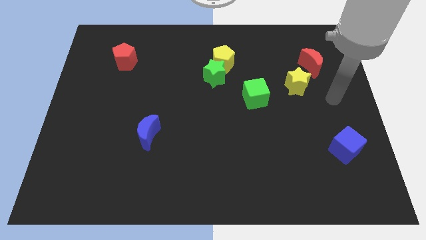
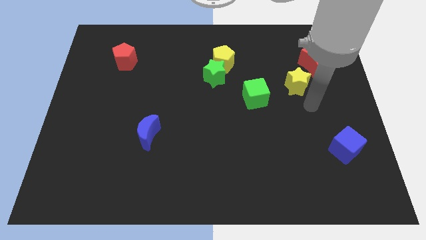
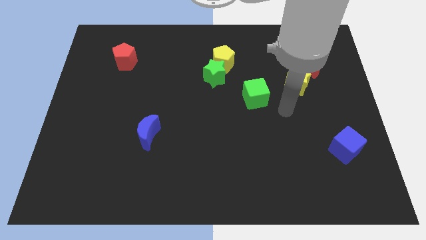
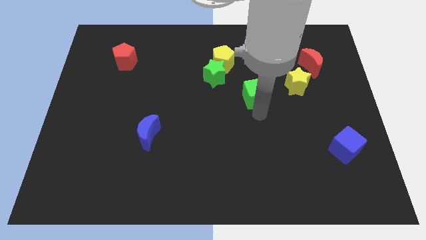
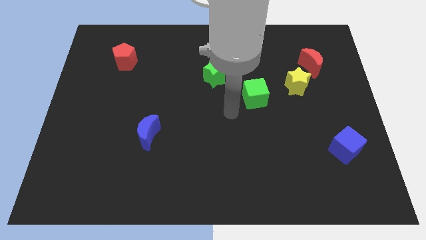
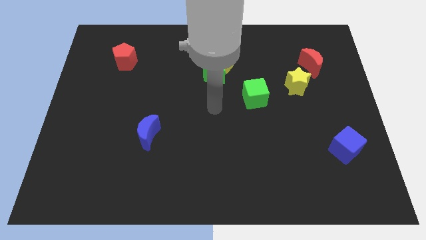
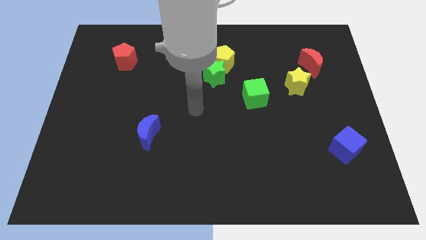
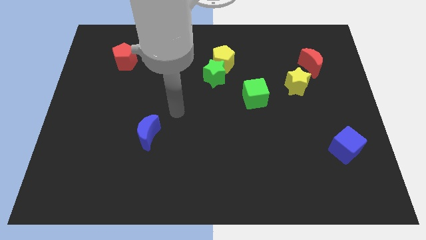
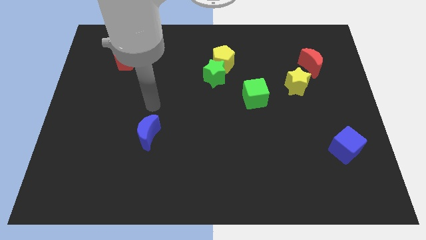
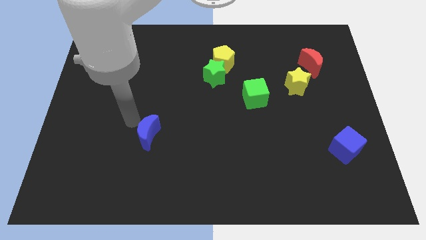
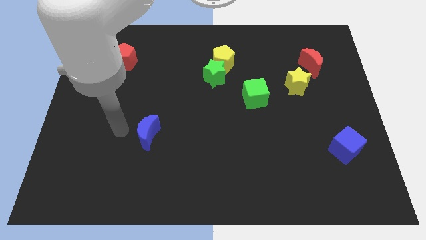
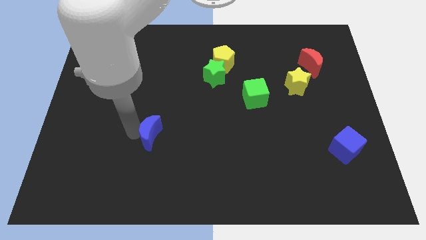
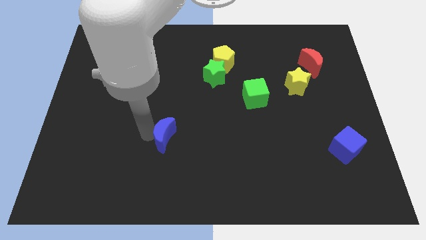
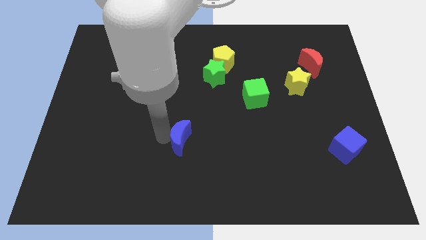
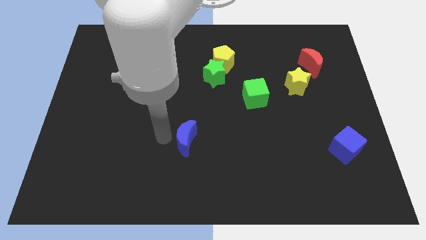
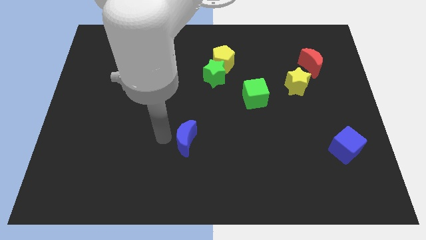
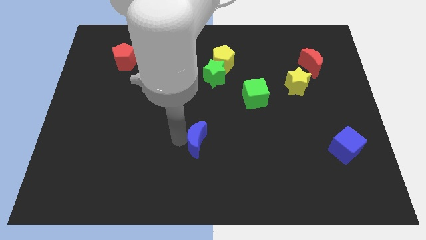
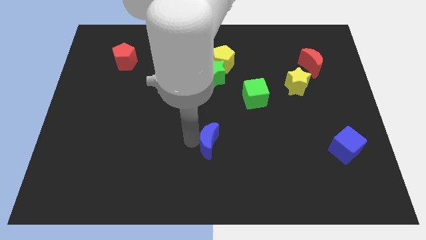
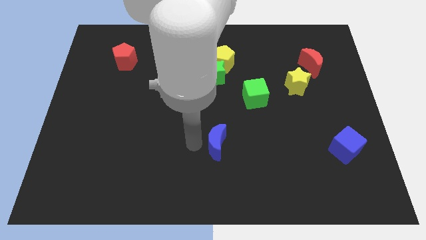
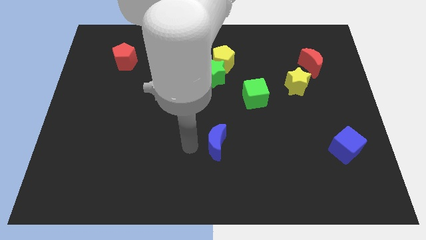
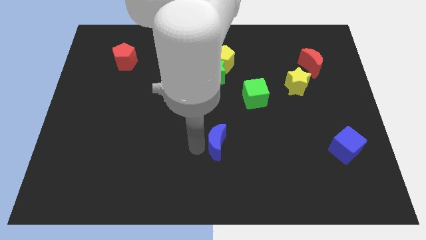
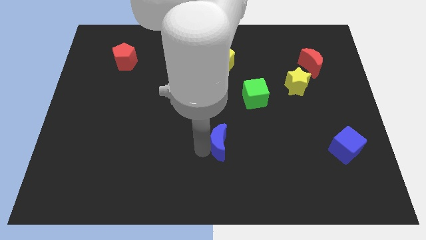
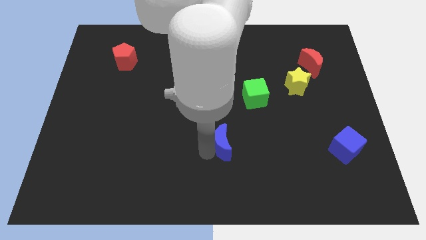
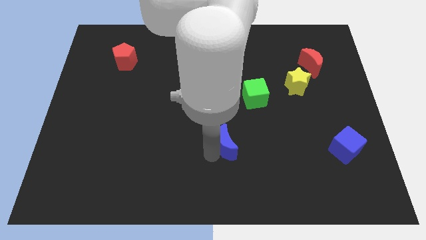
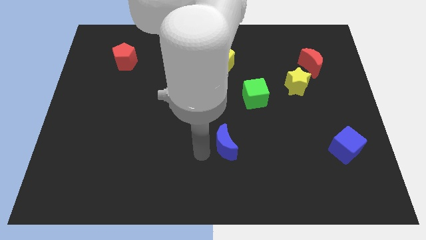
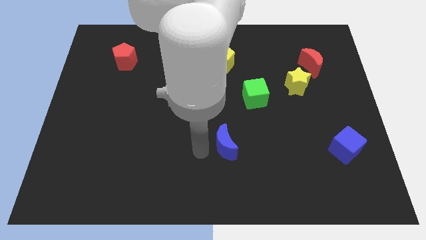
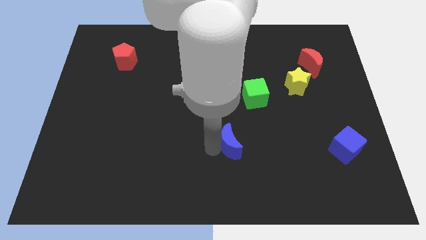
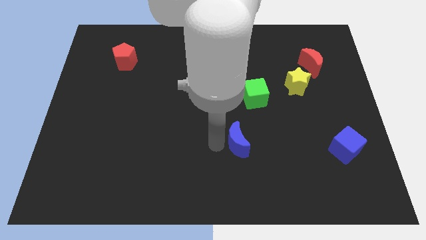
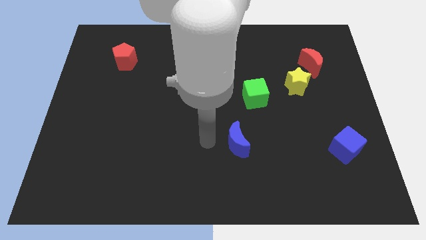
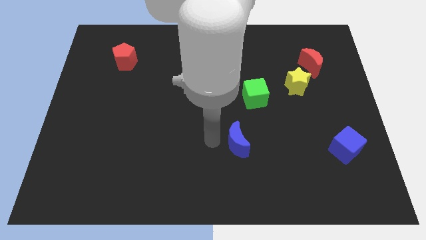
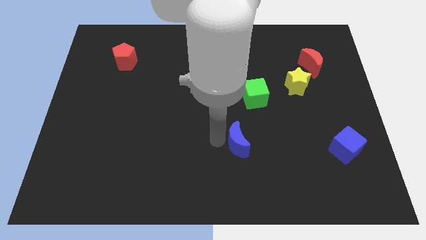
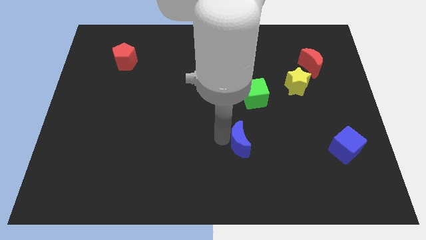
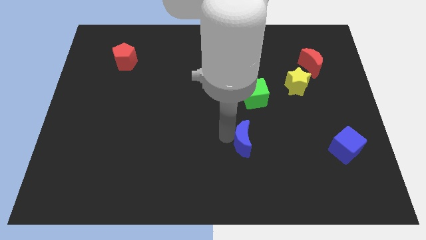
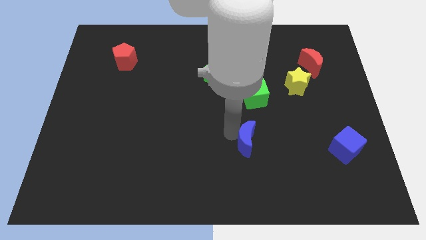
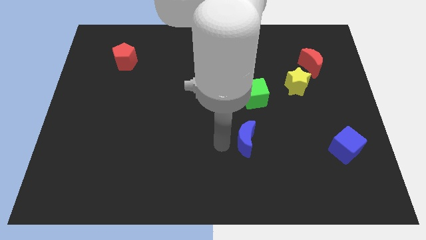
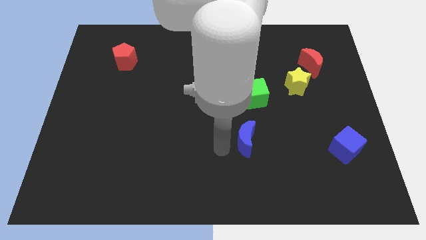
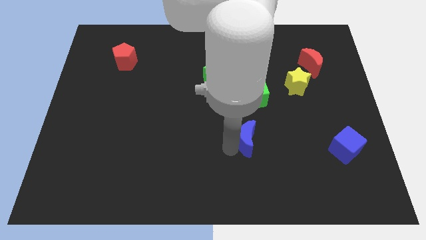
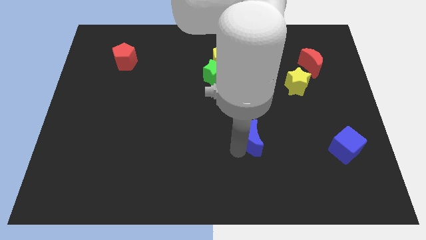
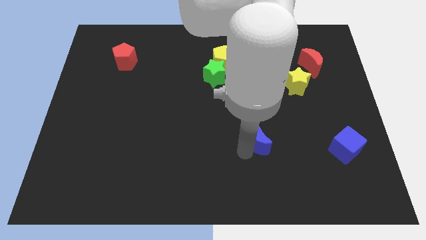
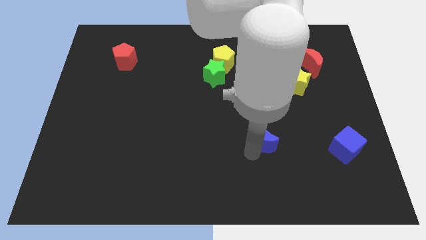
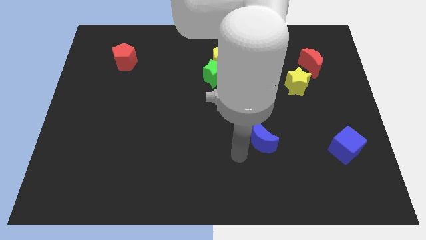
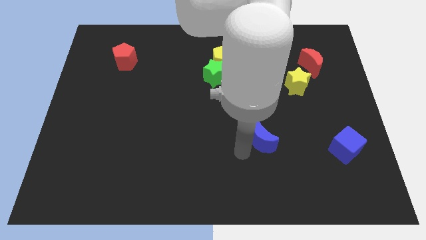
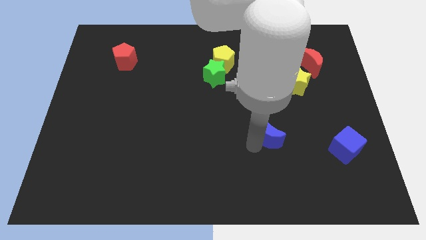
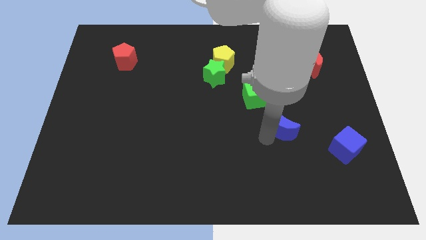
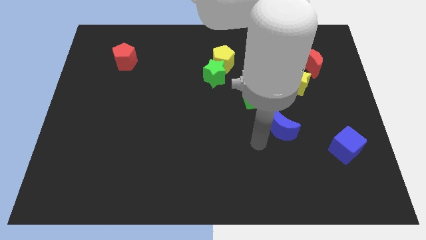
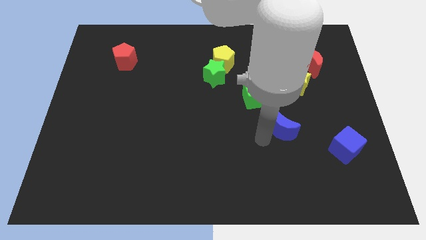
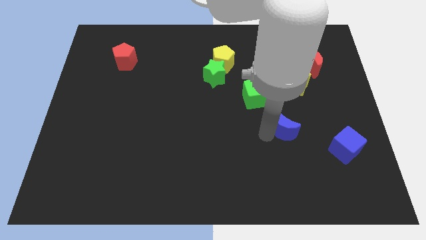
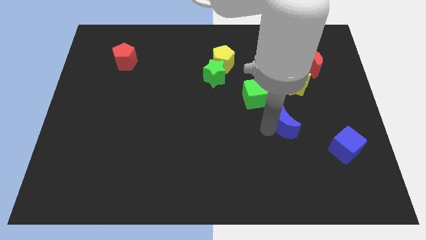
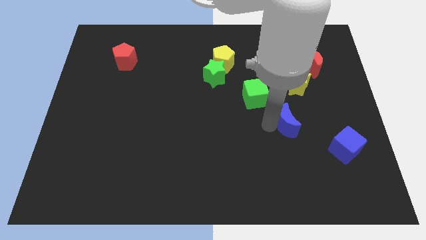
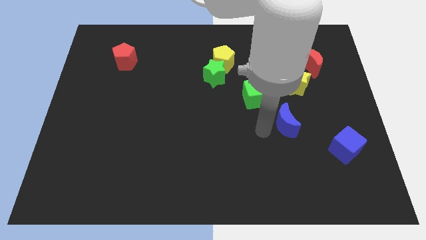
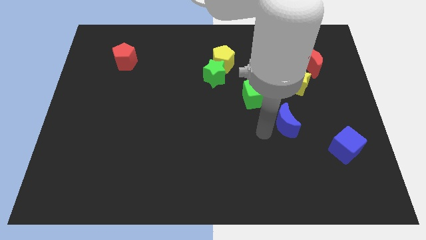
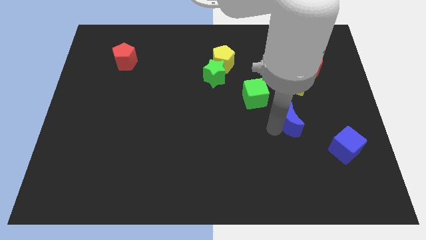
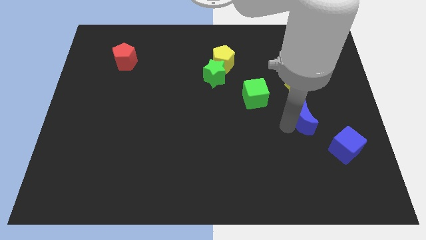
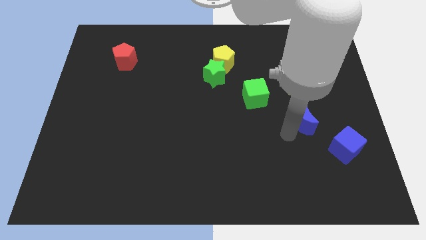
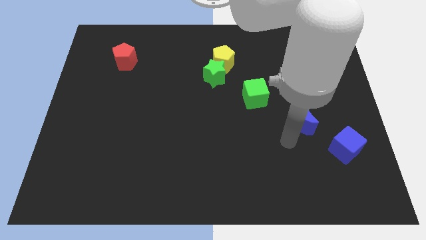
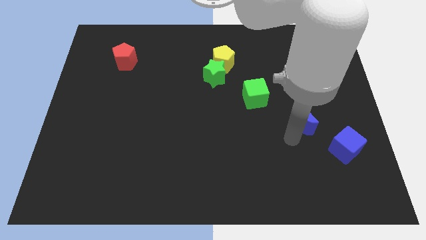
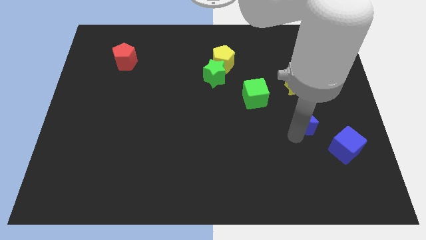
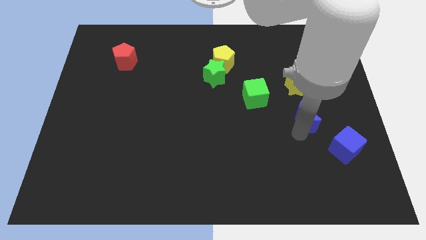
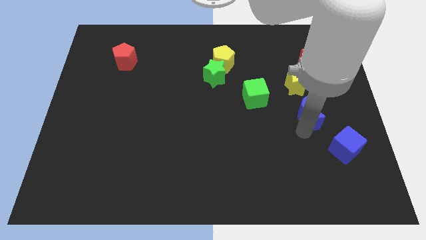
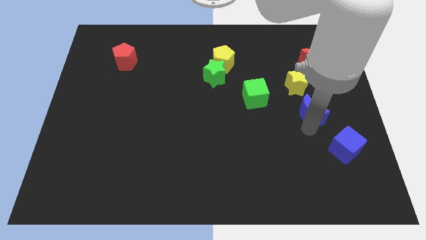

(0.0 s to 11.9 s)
push the blue moon to the bottom right of the yellow star

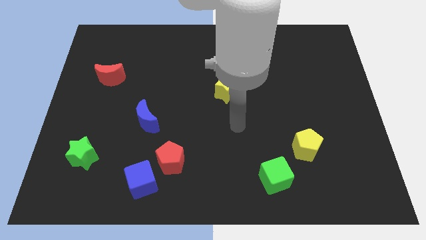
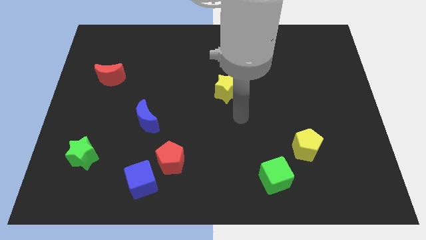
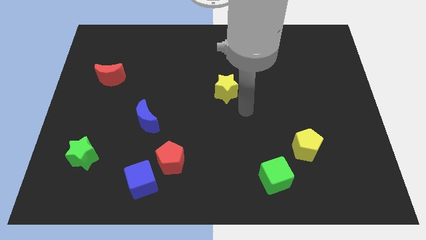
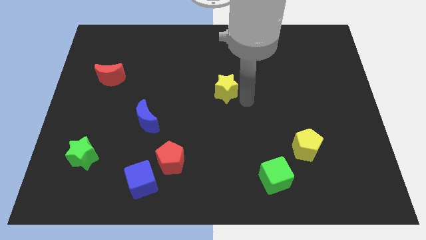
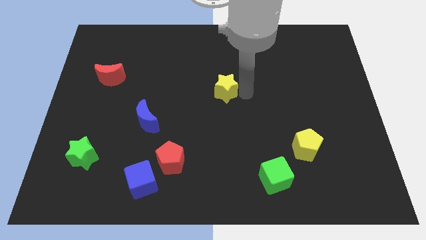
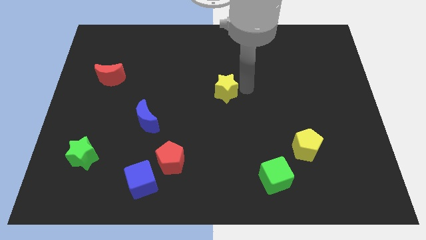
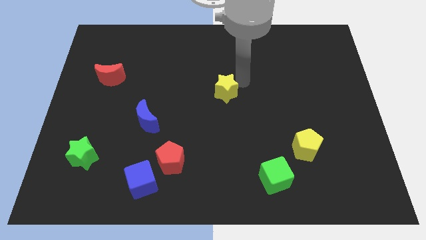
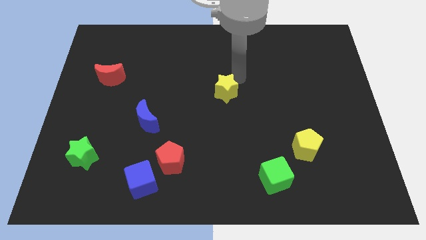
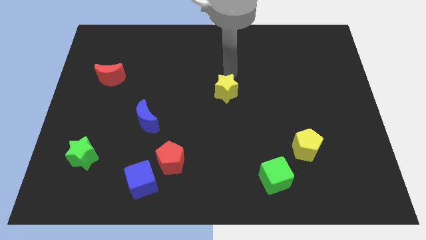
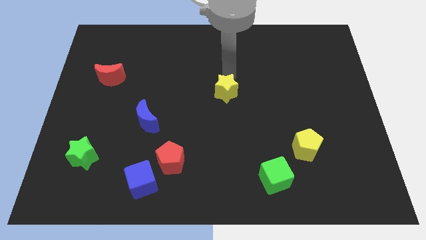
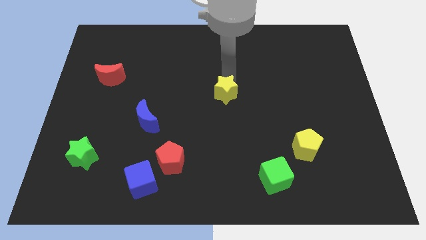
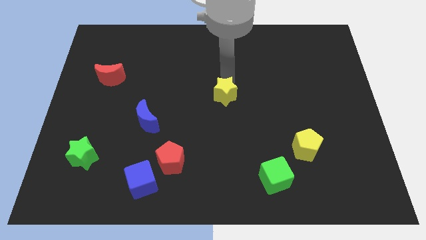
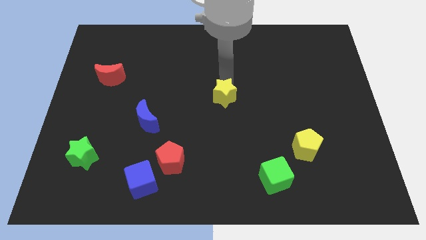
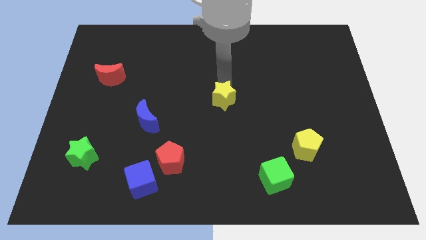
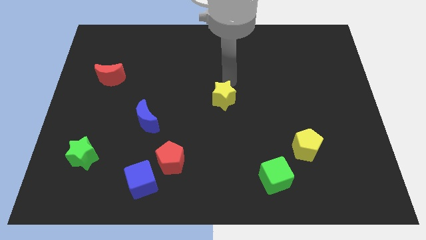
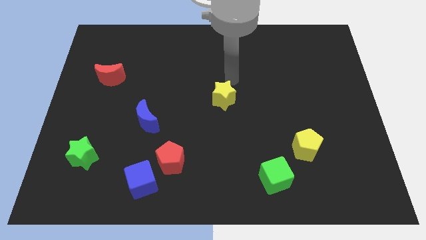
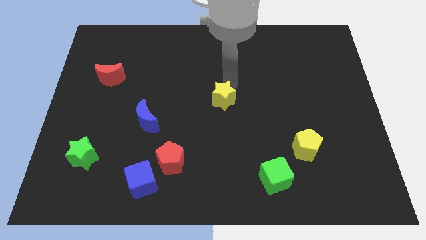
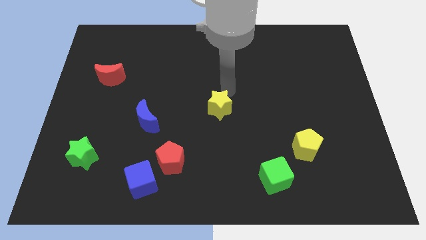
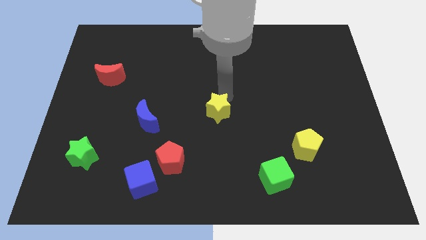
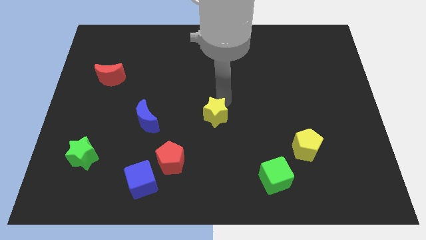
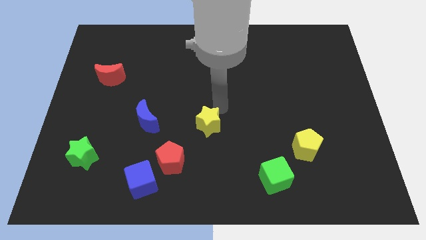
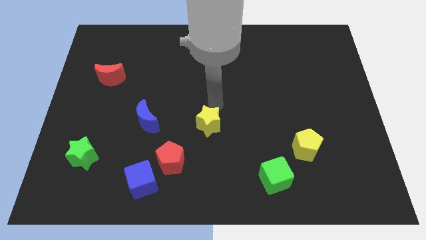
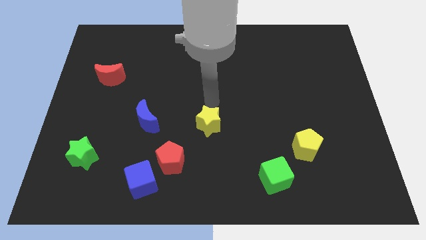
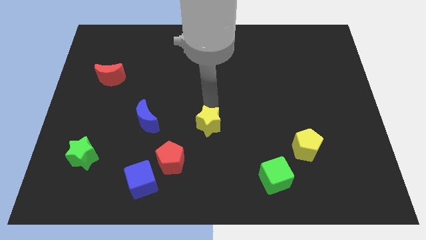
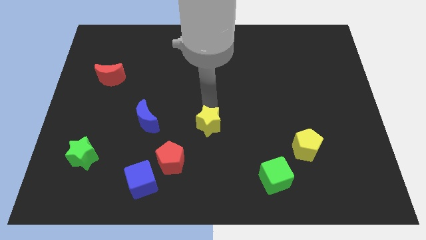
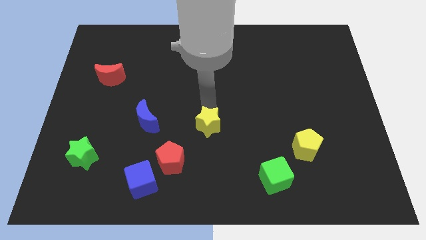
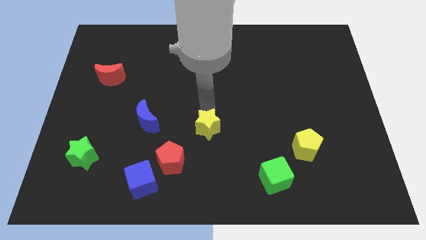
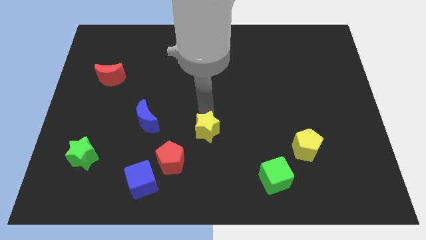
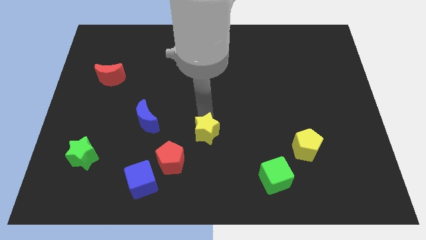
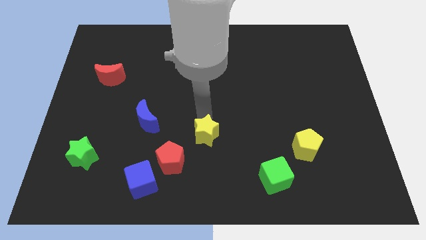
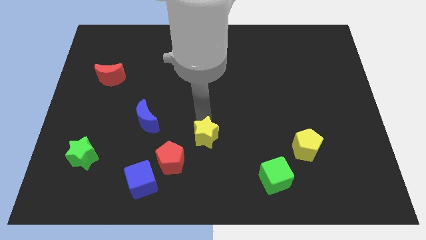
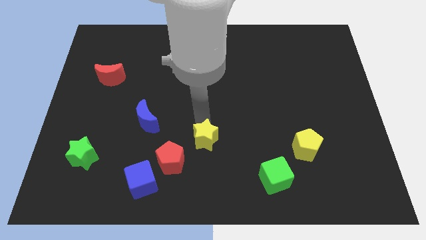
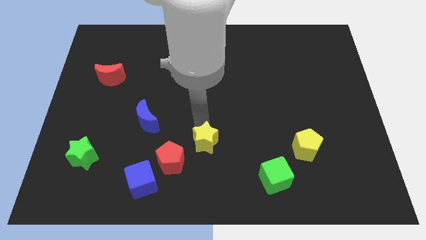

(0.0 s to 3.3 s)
push the yellow star to the right side of the red pentagon
